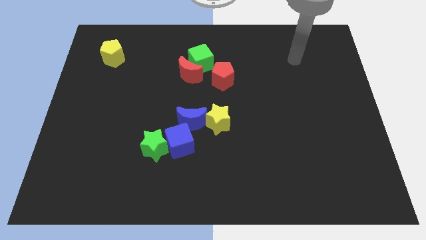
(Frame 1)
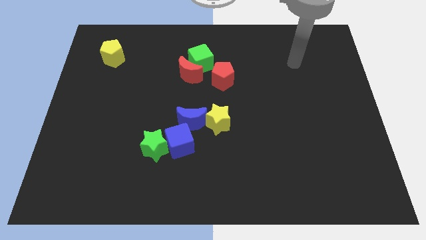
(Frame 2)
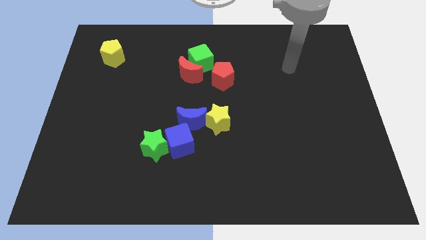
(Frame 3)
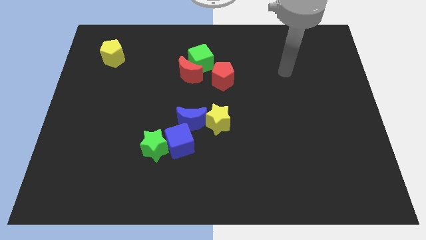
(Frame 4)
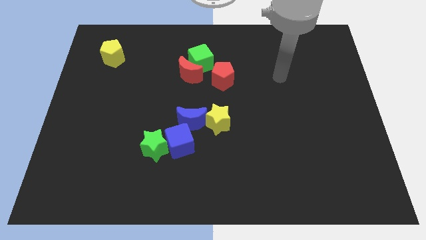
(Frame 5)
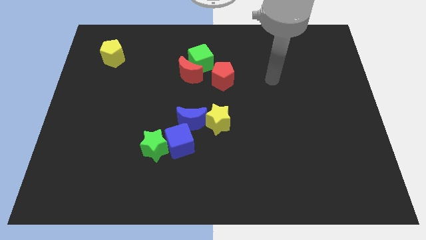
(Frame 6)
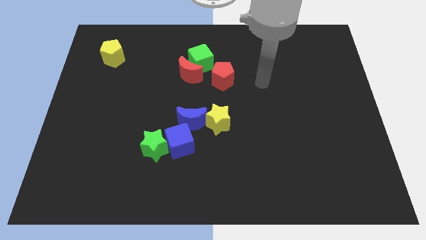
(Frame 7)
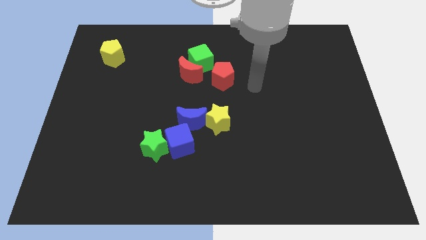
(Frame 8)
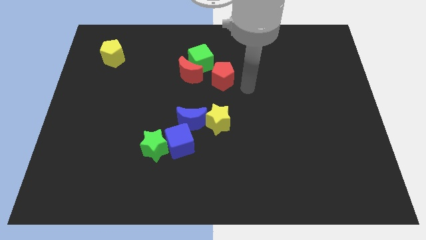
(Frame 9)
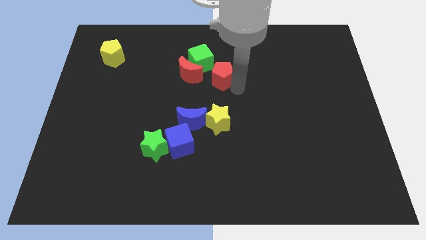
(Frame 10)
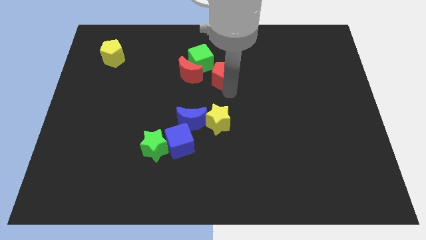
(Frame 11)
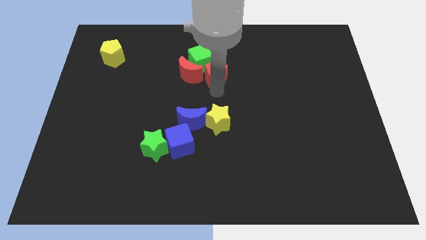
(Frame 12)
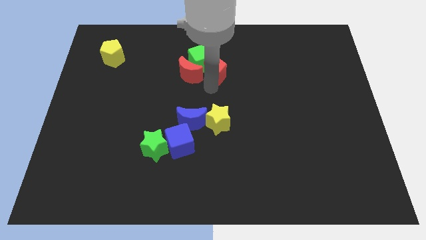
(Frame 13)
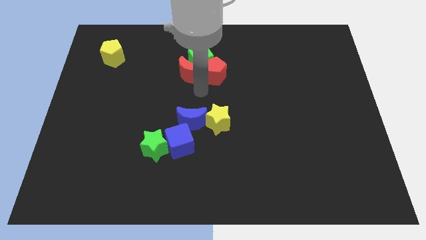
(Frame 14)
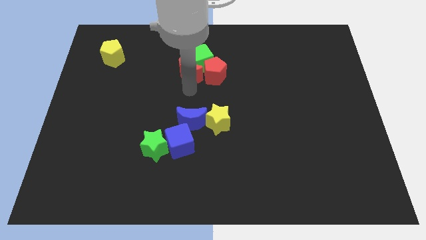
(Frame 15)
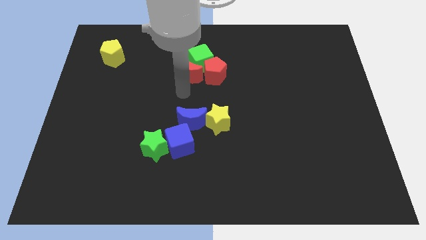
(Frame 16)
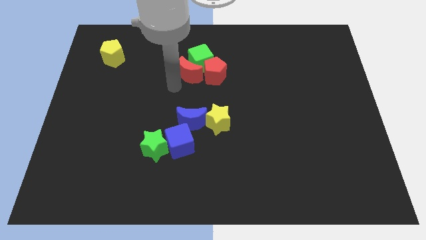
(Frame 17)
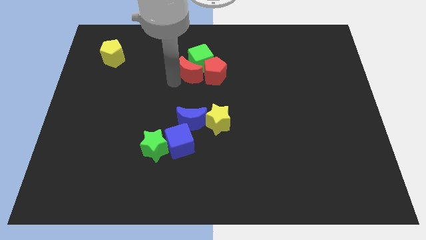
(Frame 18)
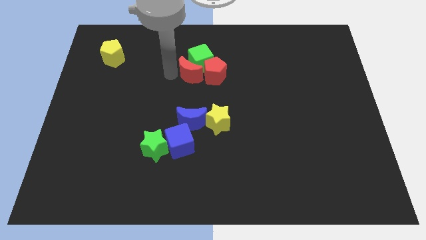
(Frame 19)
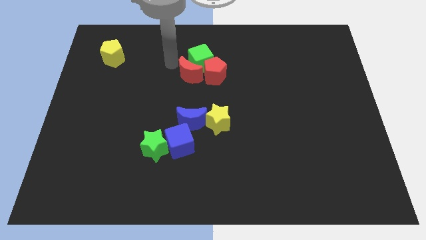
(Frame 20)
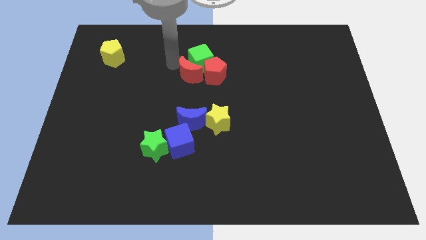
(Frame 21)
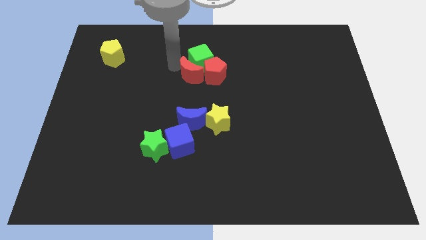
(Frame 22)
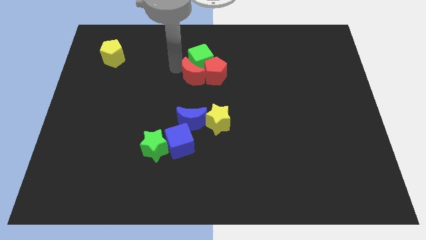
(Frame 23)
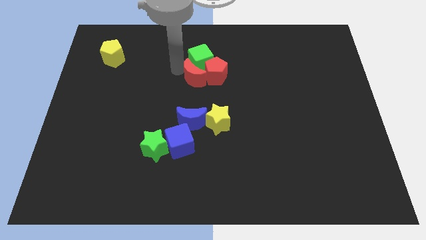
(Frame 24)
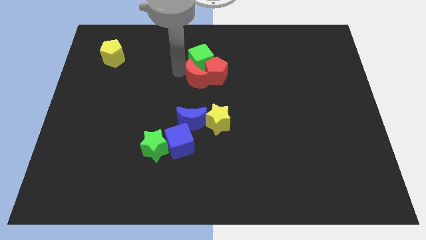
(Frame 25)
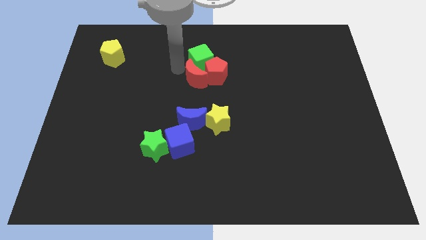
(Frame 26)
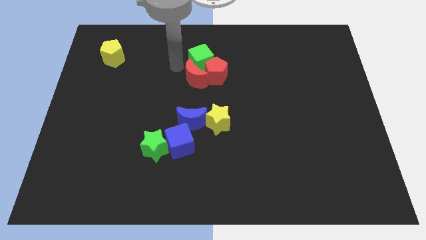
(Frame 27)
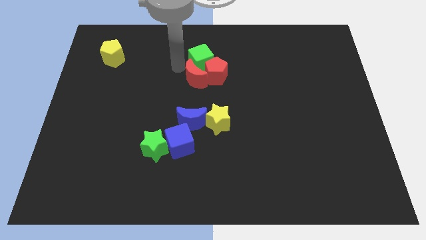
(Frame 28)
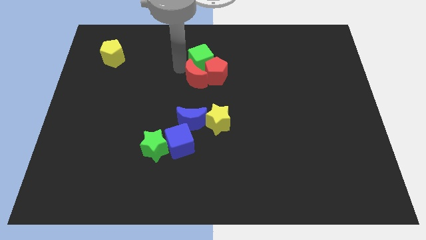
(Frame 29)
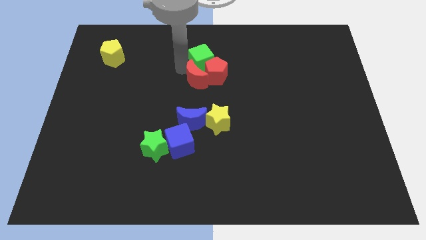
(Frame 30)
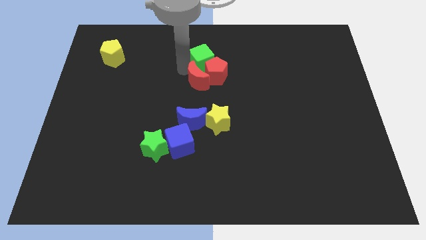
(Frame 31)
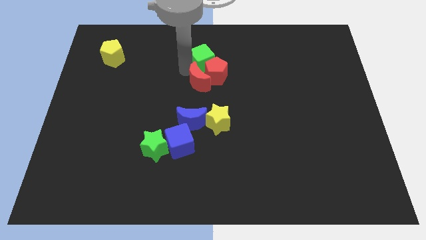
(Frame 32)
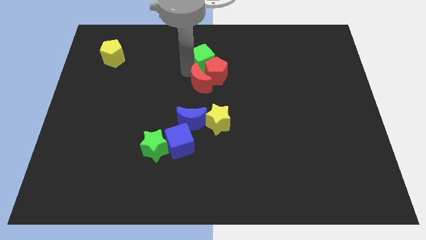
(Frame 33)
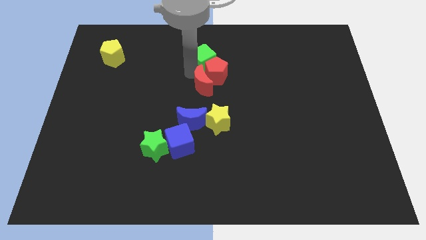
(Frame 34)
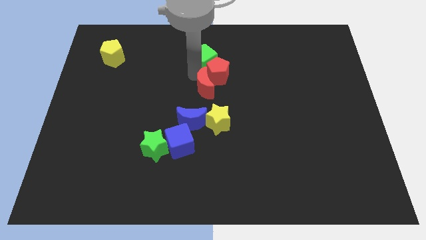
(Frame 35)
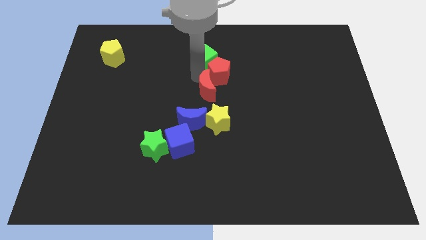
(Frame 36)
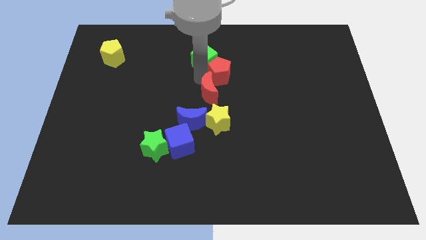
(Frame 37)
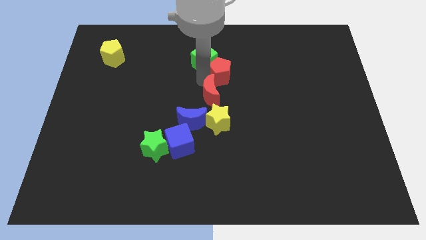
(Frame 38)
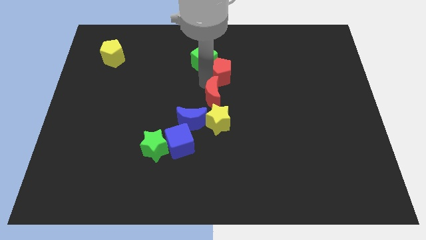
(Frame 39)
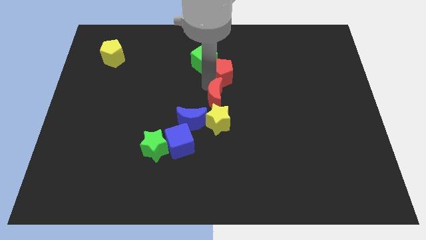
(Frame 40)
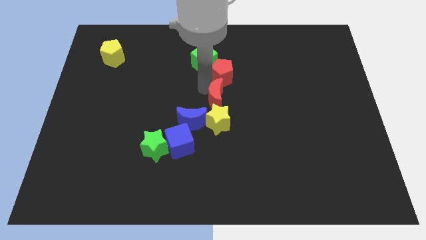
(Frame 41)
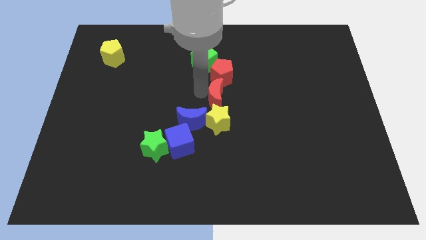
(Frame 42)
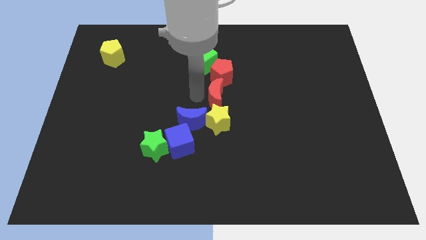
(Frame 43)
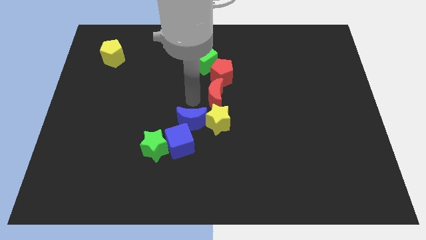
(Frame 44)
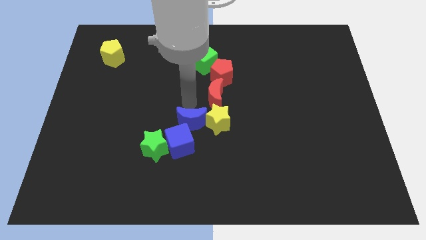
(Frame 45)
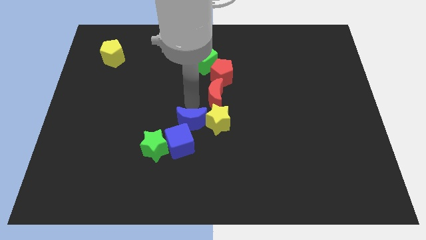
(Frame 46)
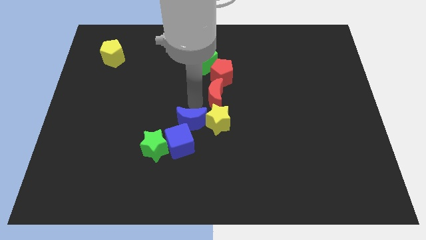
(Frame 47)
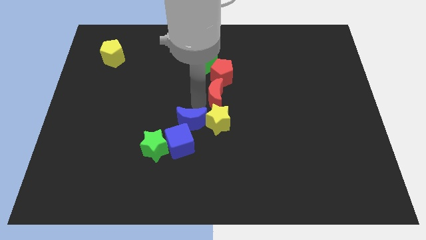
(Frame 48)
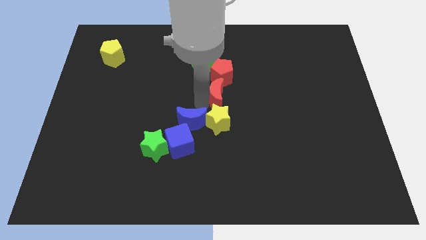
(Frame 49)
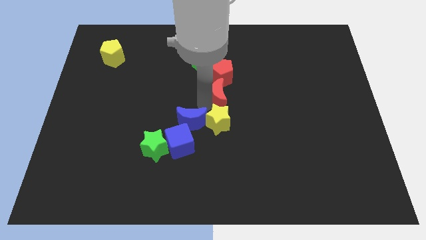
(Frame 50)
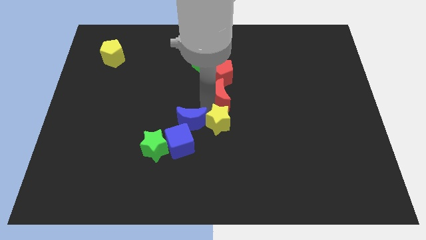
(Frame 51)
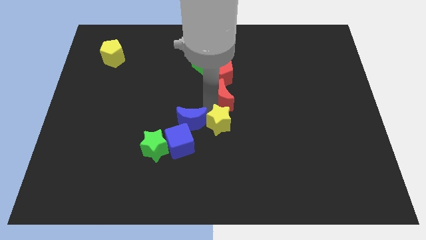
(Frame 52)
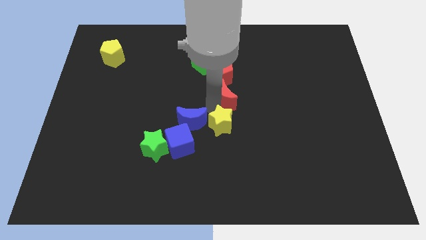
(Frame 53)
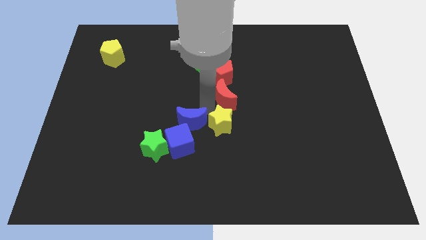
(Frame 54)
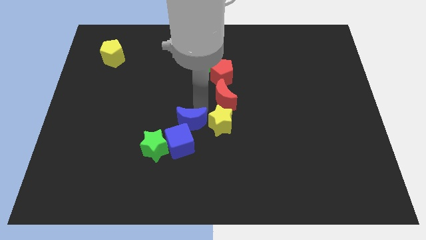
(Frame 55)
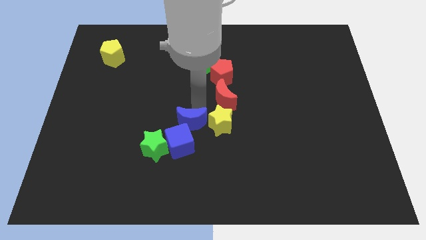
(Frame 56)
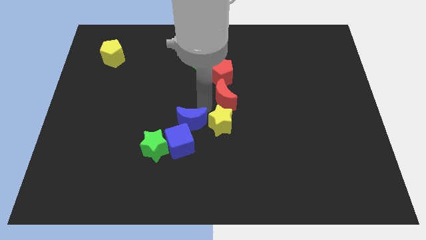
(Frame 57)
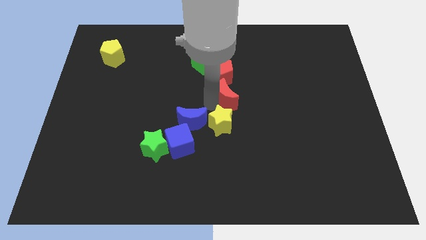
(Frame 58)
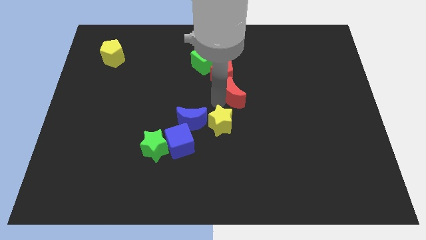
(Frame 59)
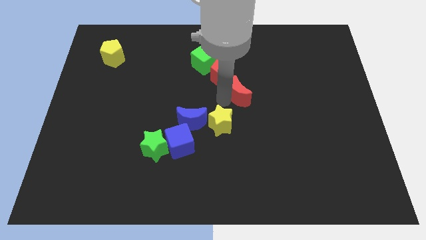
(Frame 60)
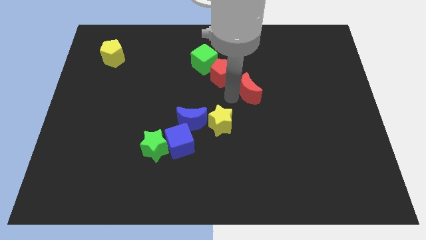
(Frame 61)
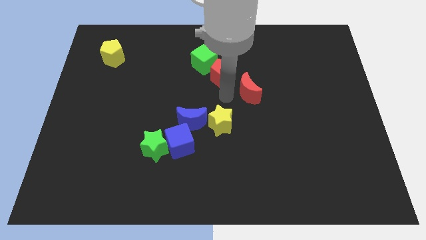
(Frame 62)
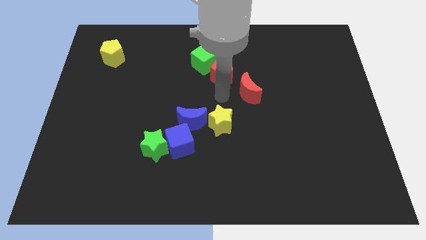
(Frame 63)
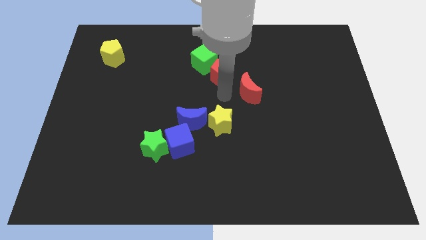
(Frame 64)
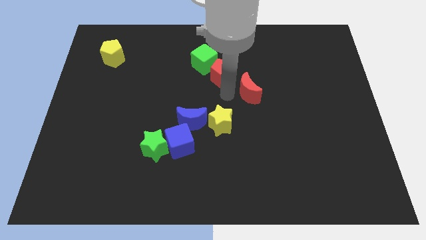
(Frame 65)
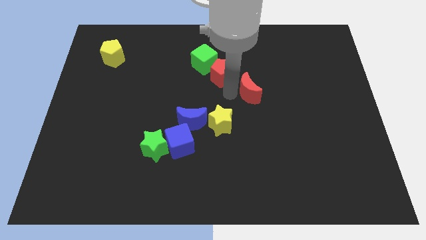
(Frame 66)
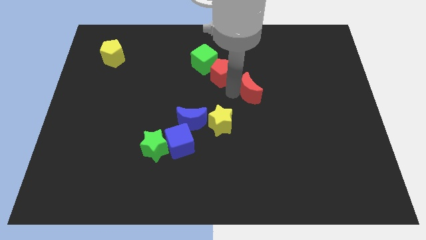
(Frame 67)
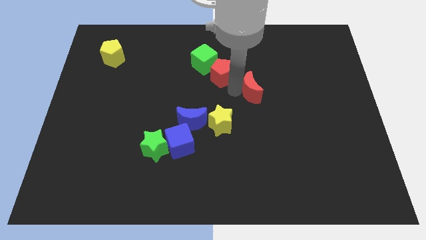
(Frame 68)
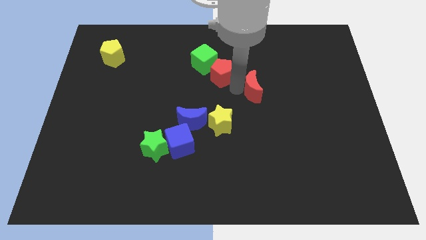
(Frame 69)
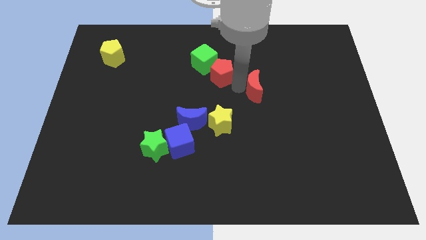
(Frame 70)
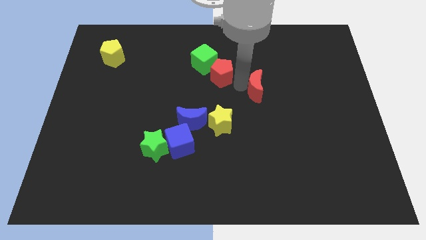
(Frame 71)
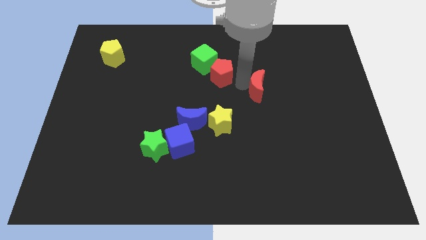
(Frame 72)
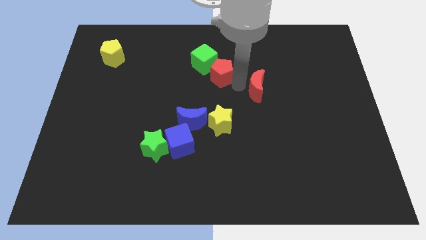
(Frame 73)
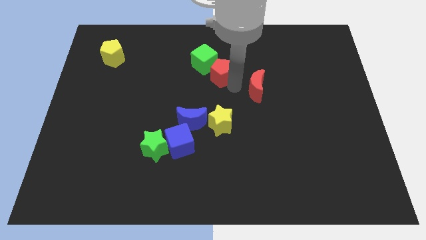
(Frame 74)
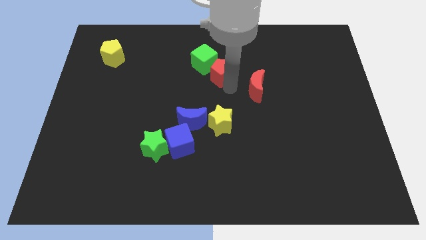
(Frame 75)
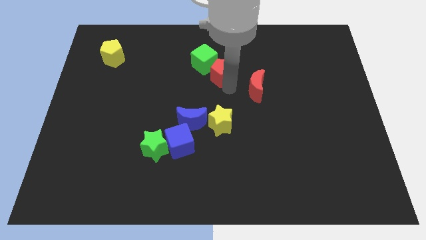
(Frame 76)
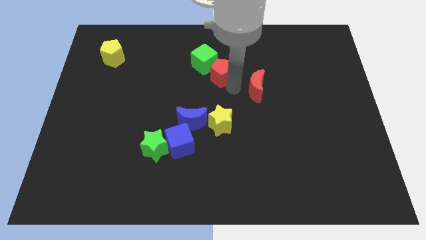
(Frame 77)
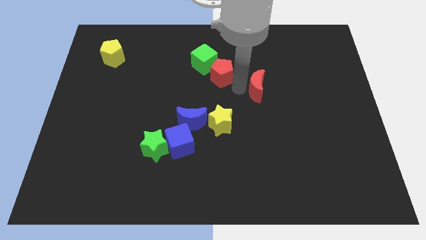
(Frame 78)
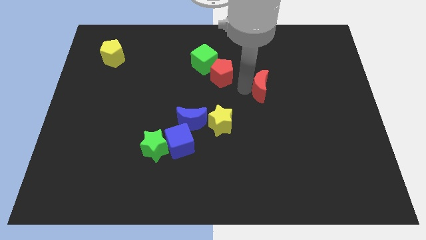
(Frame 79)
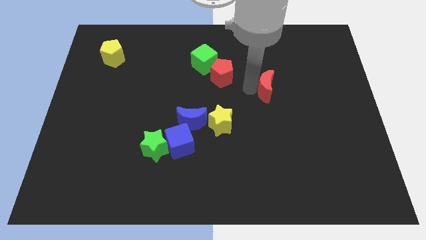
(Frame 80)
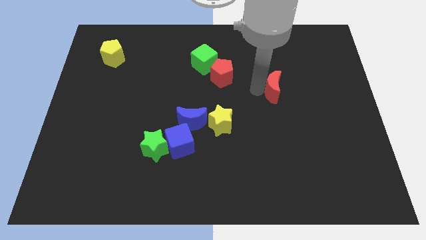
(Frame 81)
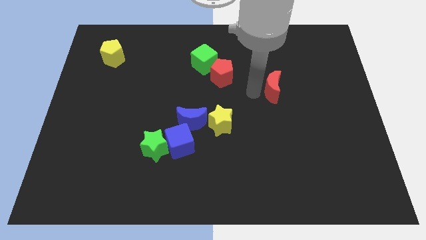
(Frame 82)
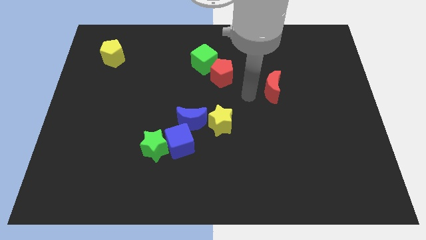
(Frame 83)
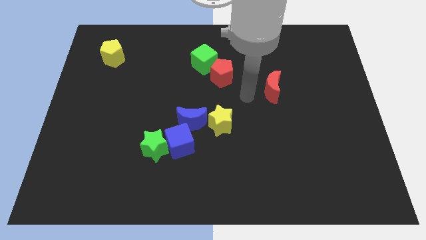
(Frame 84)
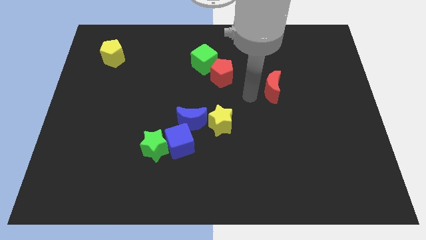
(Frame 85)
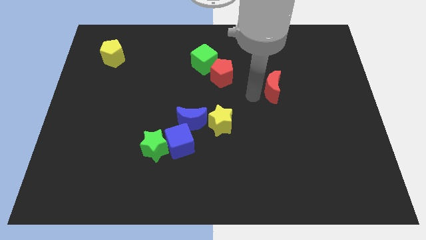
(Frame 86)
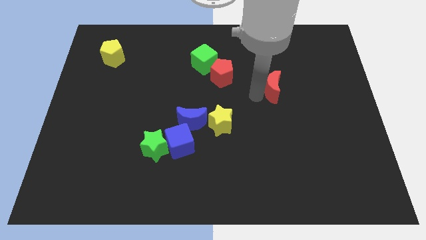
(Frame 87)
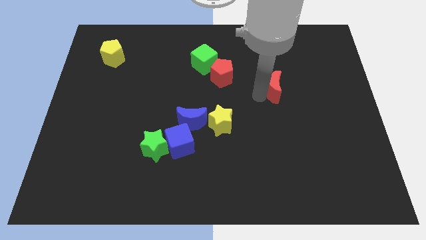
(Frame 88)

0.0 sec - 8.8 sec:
push the red moon right
